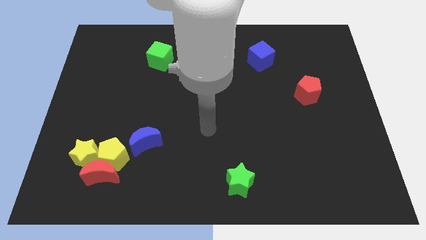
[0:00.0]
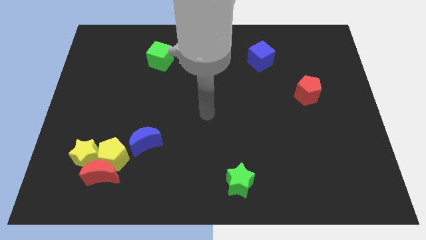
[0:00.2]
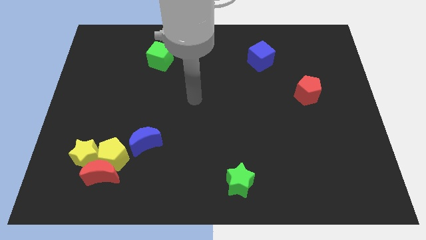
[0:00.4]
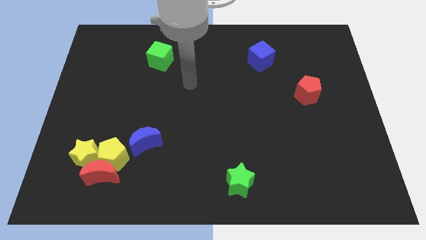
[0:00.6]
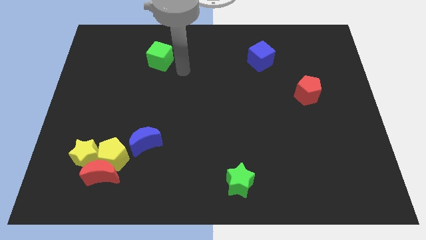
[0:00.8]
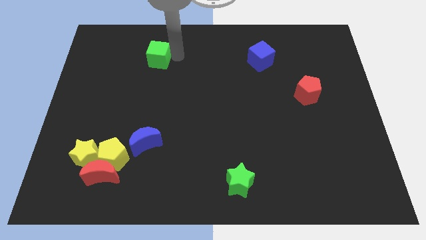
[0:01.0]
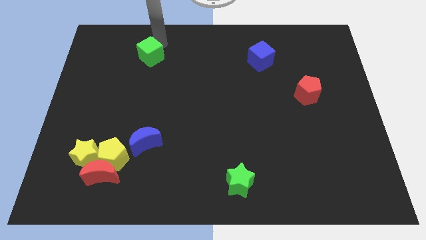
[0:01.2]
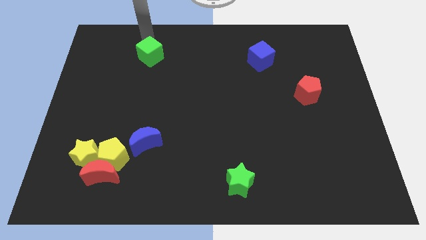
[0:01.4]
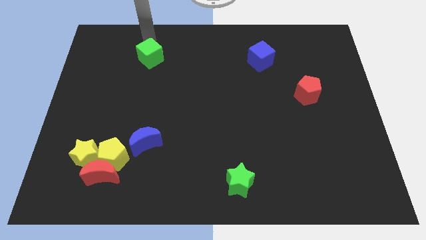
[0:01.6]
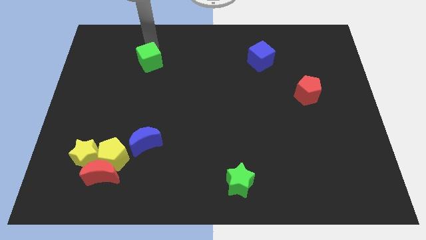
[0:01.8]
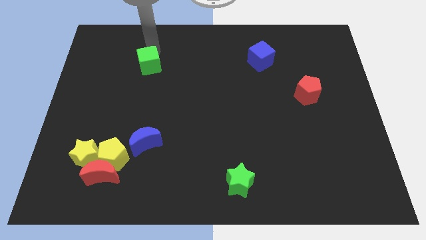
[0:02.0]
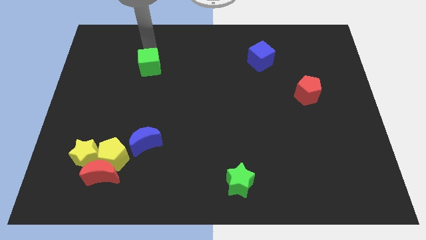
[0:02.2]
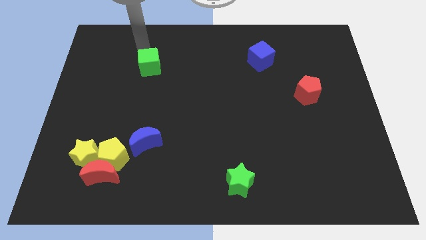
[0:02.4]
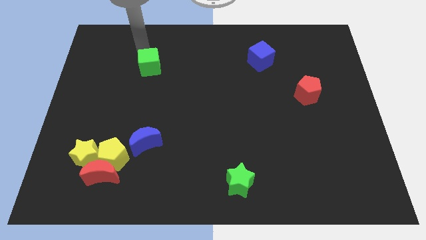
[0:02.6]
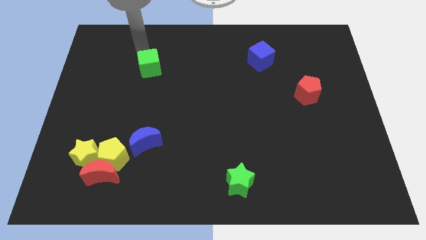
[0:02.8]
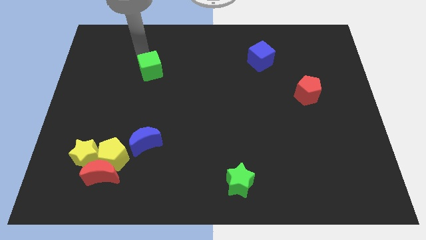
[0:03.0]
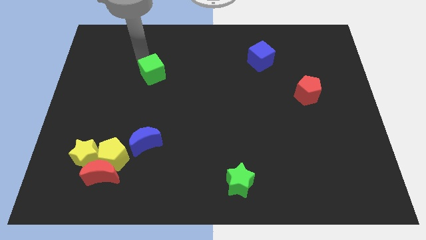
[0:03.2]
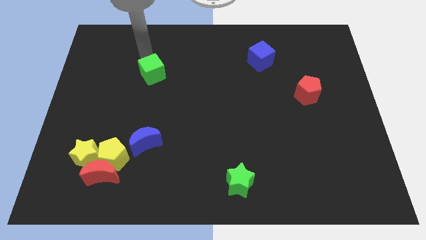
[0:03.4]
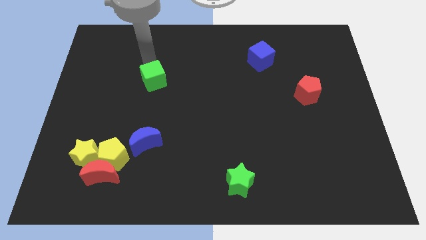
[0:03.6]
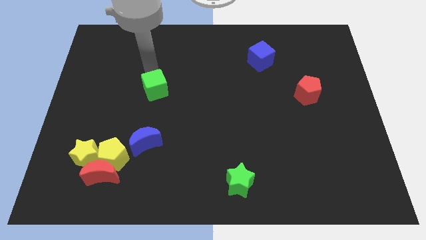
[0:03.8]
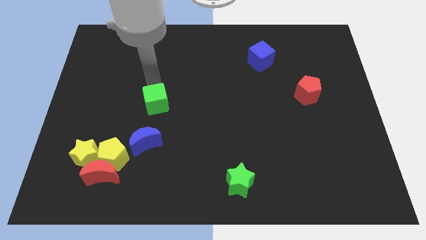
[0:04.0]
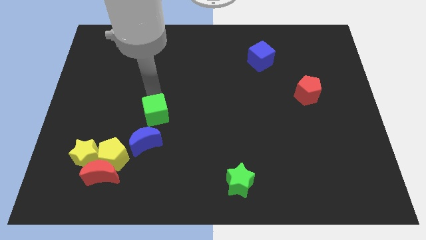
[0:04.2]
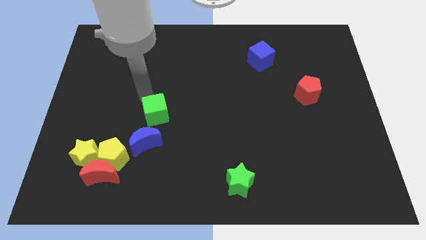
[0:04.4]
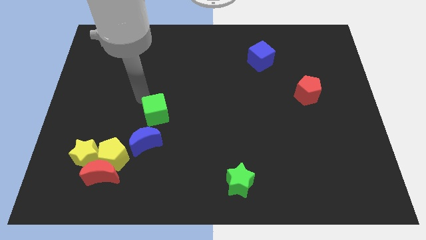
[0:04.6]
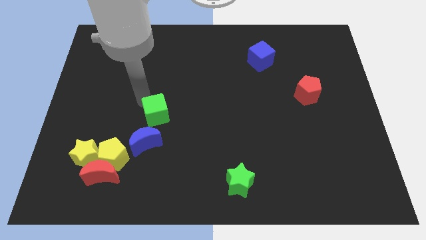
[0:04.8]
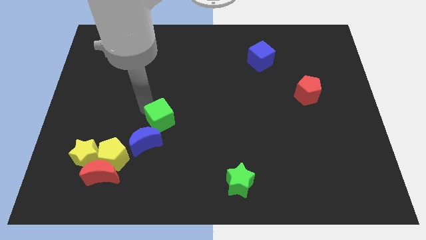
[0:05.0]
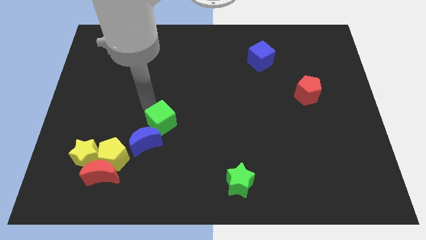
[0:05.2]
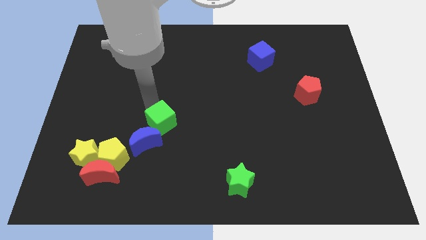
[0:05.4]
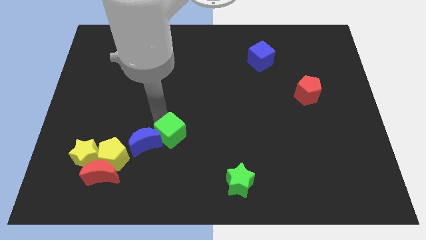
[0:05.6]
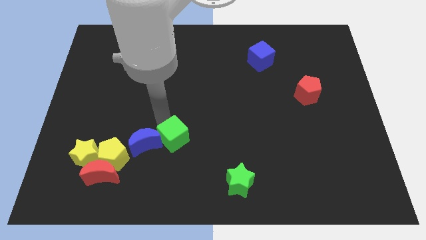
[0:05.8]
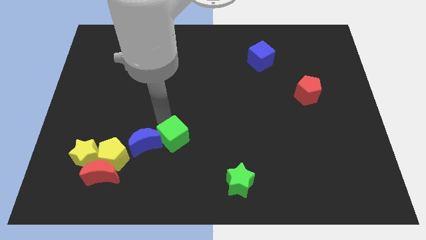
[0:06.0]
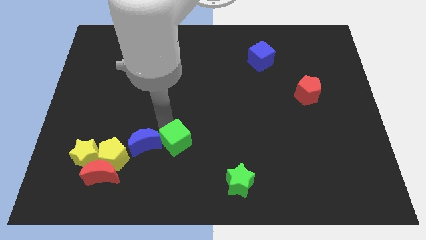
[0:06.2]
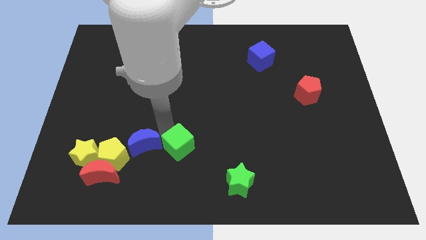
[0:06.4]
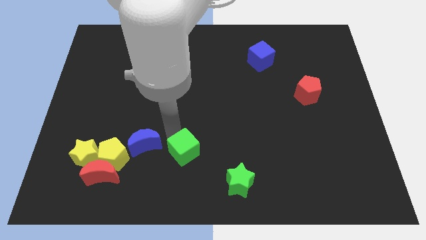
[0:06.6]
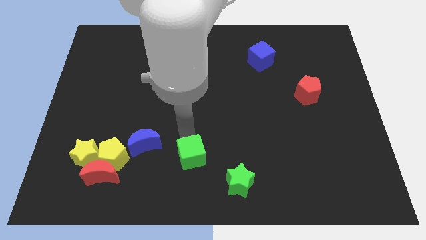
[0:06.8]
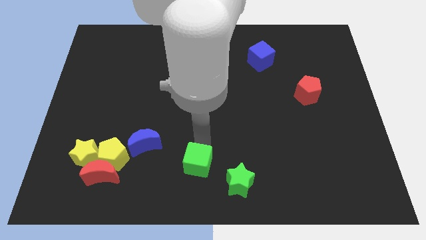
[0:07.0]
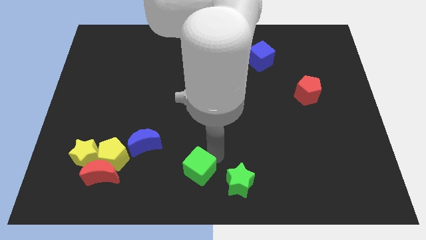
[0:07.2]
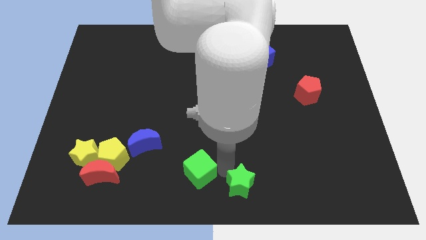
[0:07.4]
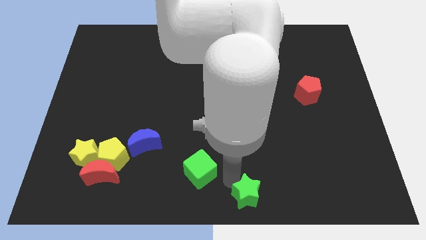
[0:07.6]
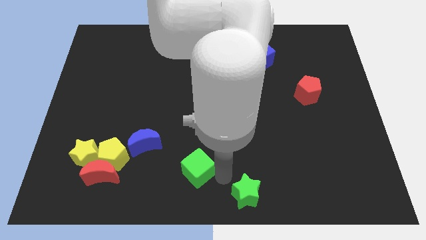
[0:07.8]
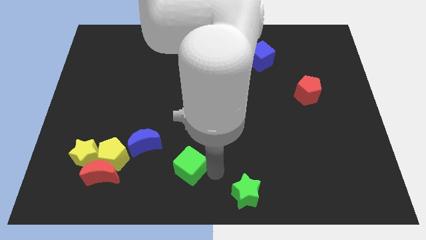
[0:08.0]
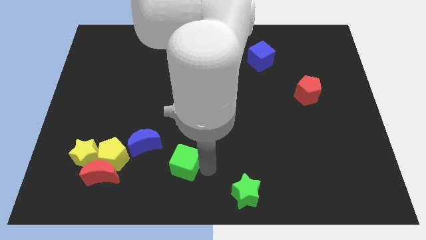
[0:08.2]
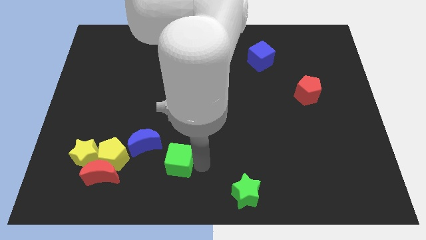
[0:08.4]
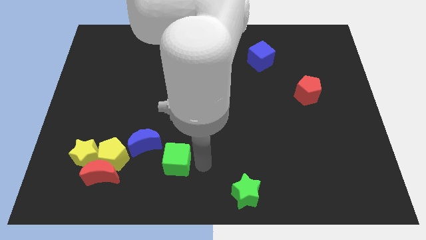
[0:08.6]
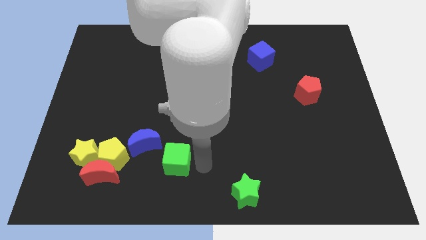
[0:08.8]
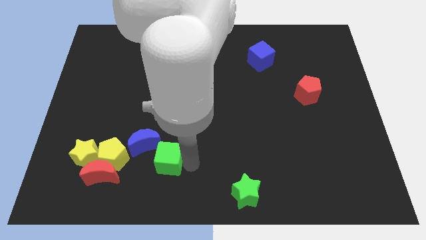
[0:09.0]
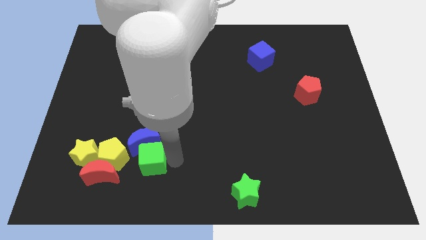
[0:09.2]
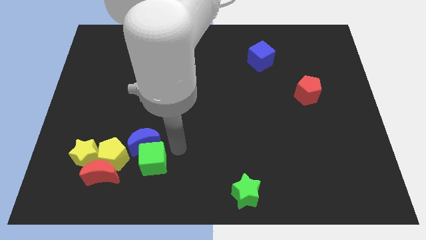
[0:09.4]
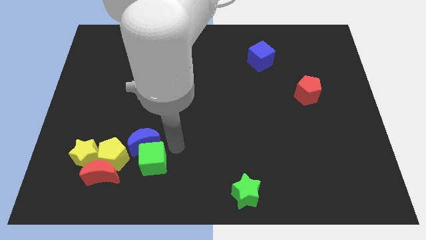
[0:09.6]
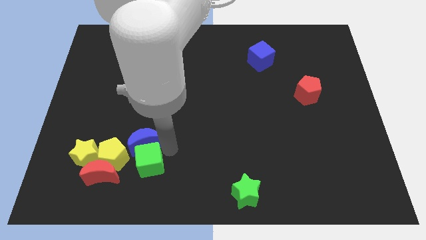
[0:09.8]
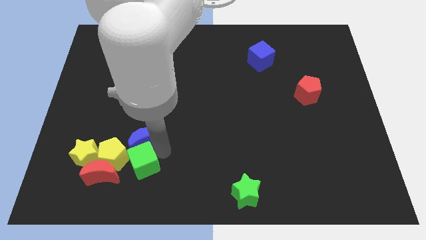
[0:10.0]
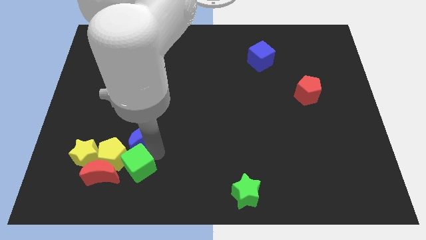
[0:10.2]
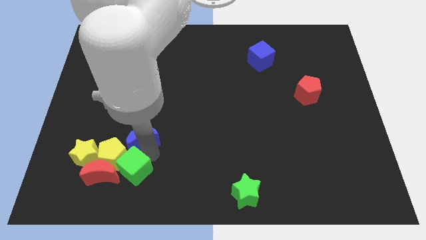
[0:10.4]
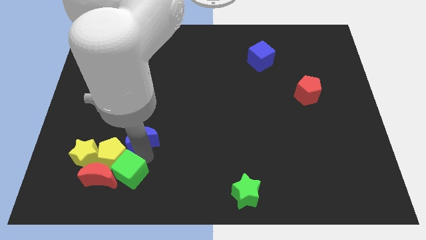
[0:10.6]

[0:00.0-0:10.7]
push the green cube next to the red moon

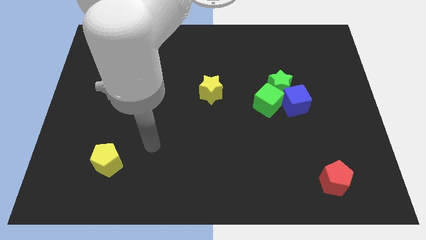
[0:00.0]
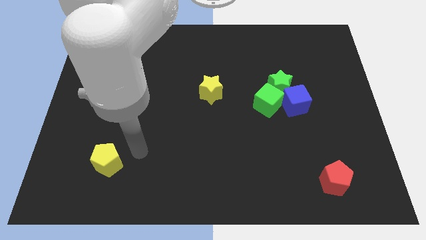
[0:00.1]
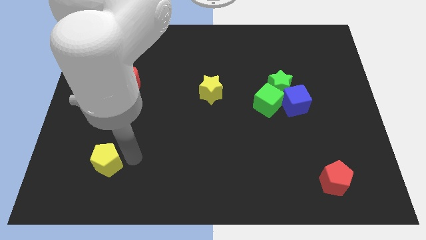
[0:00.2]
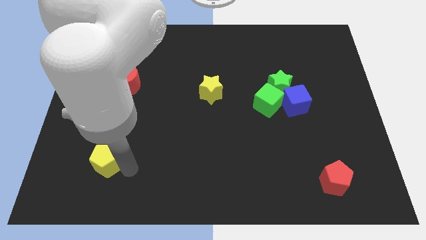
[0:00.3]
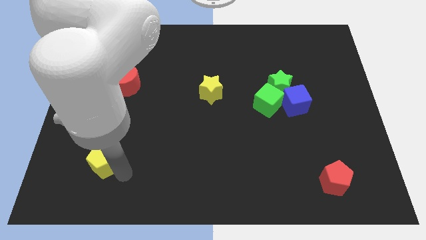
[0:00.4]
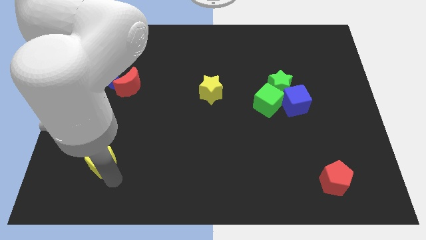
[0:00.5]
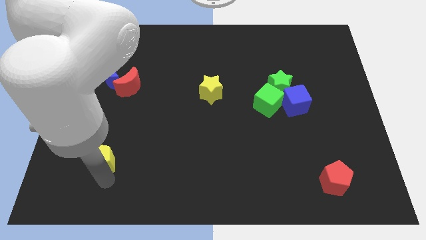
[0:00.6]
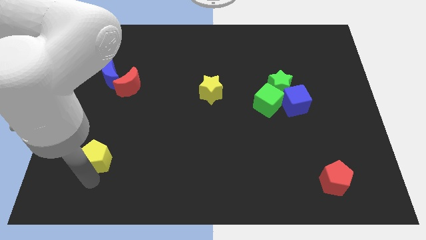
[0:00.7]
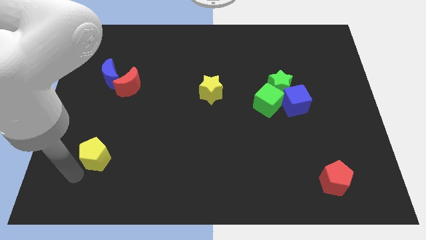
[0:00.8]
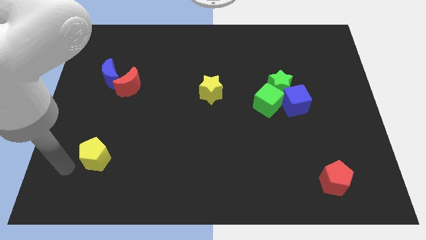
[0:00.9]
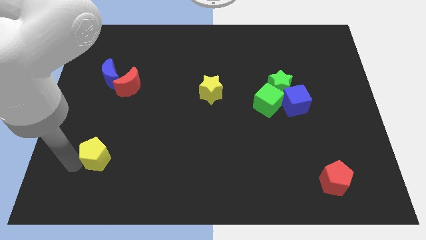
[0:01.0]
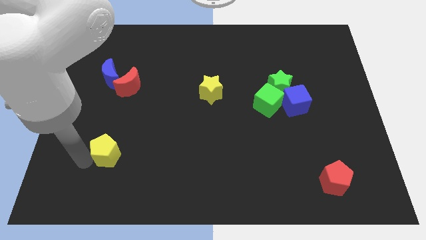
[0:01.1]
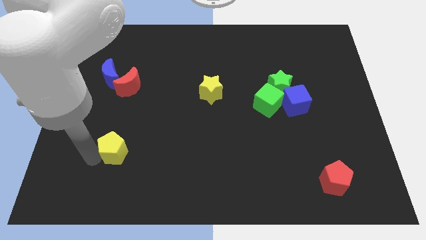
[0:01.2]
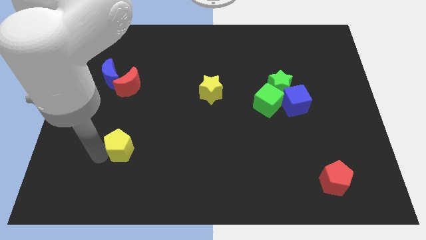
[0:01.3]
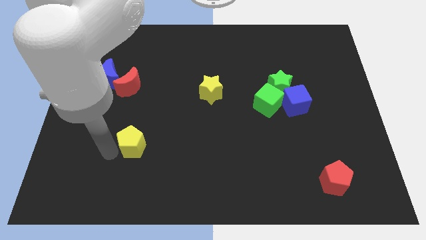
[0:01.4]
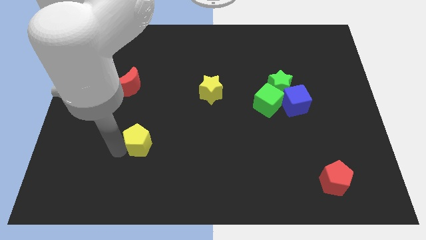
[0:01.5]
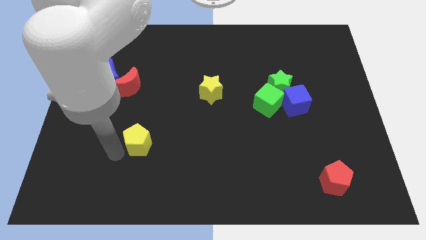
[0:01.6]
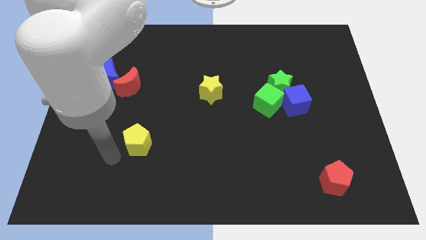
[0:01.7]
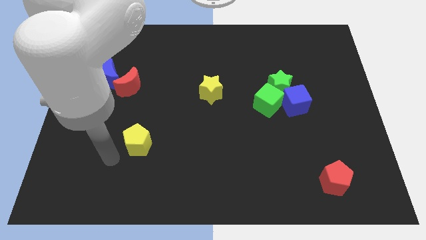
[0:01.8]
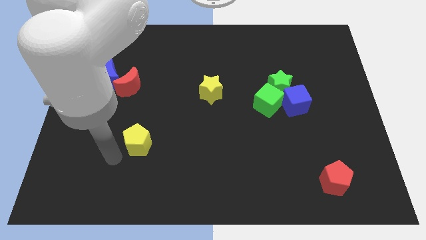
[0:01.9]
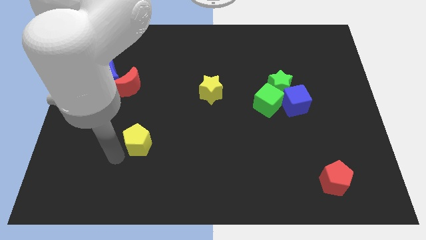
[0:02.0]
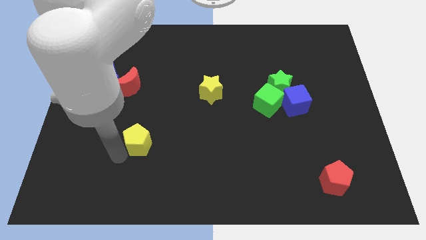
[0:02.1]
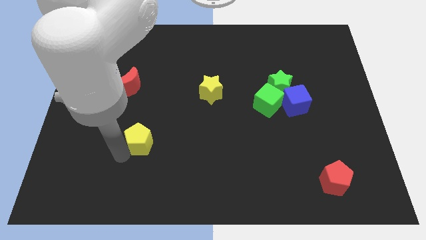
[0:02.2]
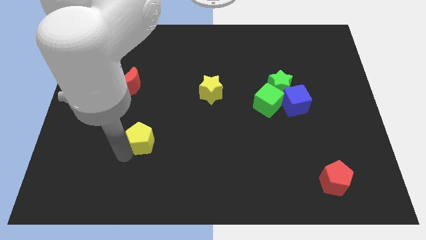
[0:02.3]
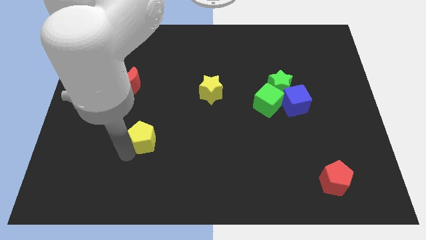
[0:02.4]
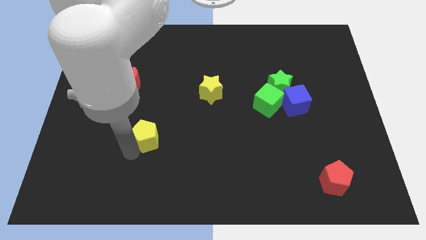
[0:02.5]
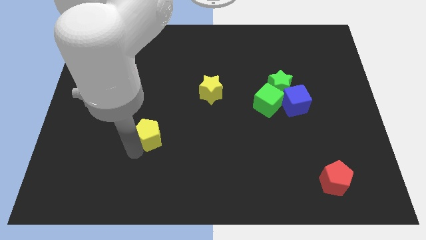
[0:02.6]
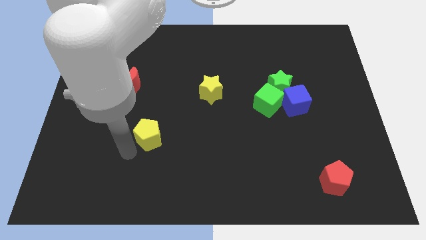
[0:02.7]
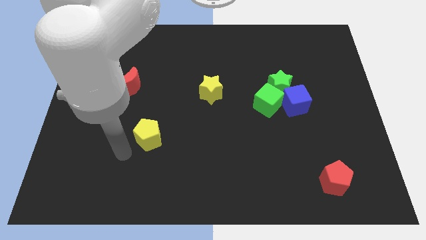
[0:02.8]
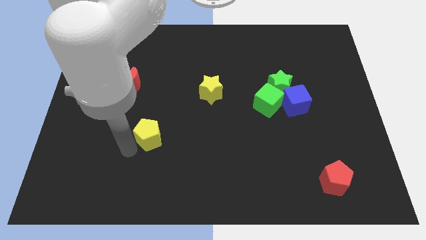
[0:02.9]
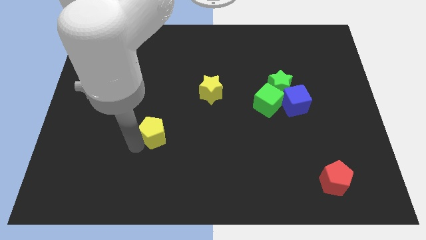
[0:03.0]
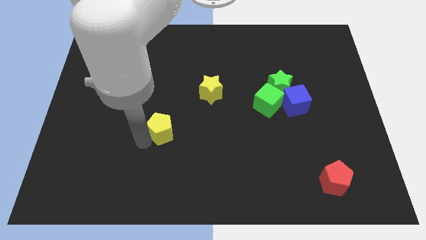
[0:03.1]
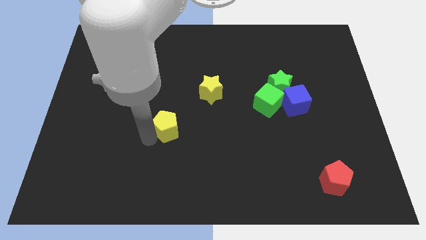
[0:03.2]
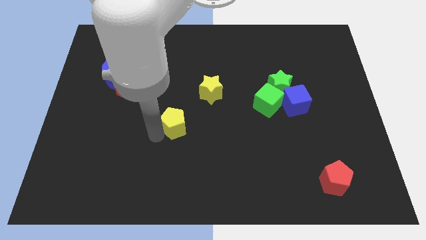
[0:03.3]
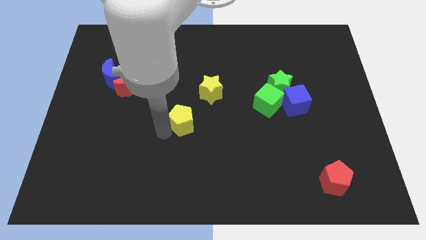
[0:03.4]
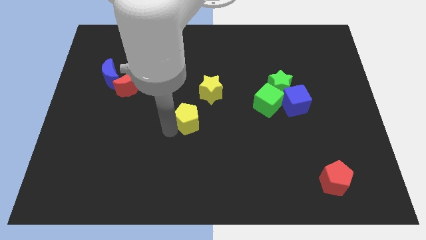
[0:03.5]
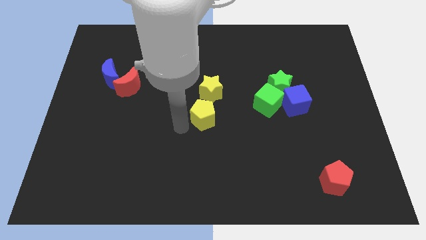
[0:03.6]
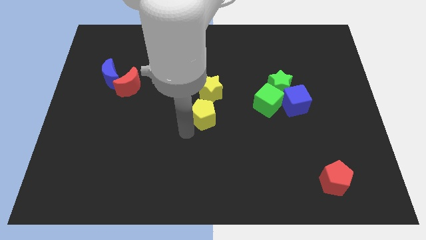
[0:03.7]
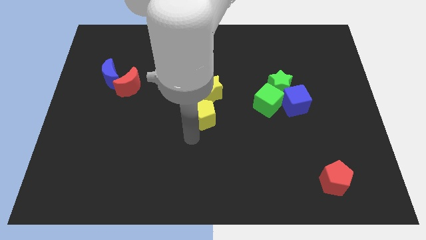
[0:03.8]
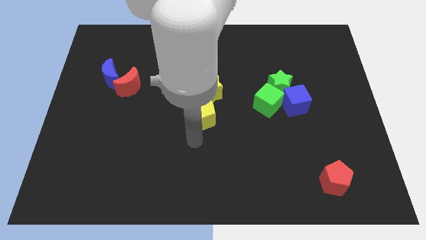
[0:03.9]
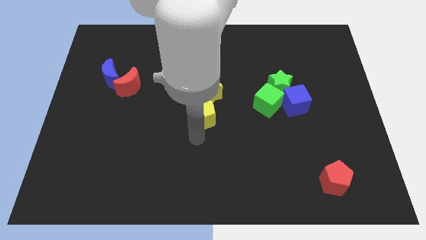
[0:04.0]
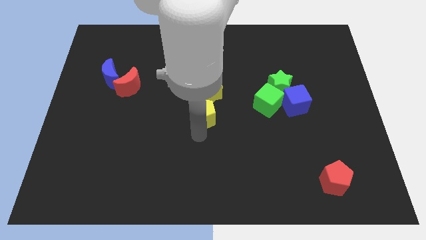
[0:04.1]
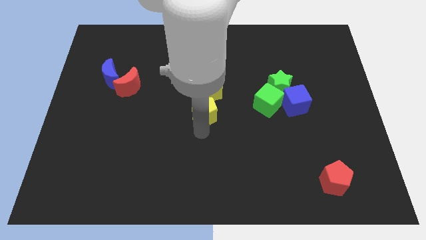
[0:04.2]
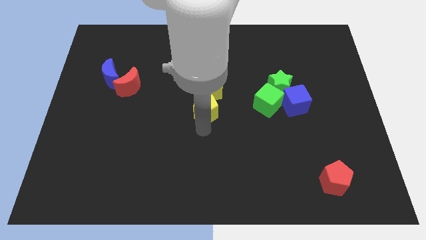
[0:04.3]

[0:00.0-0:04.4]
slide the yellow pentagon close to the yellow star
